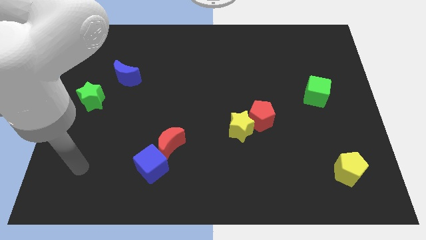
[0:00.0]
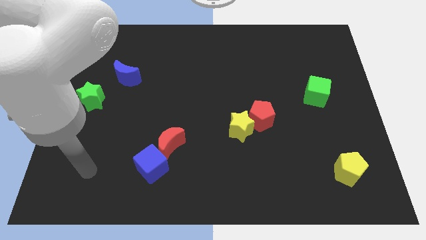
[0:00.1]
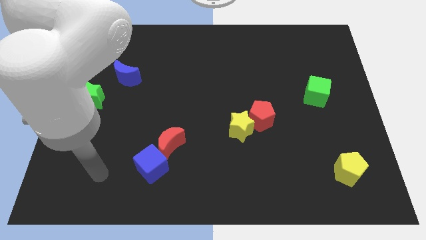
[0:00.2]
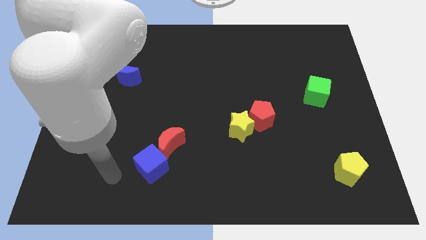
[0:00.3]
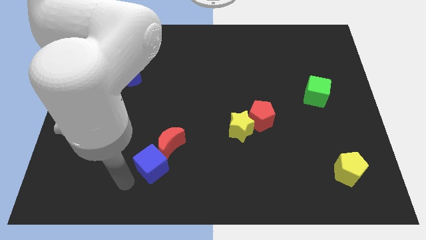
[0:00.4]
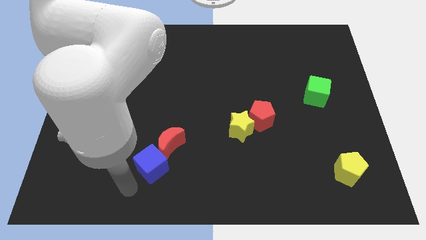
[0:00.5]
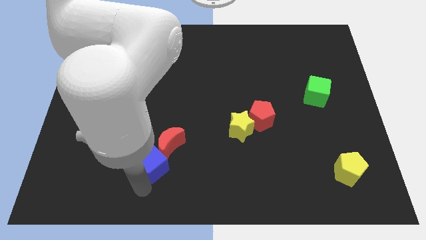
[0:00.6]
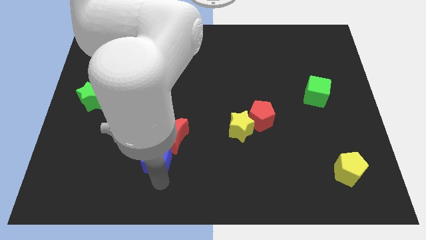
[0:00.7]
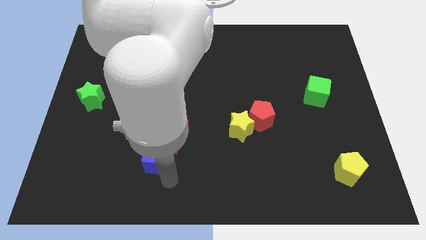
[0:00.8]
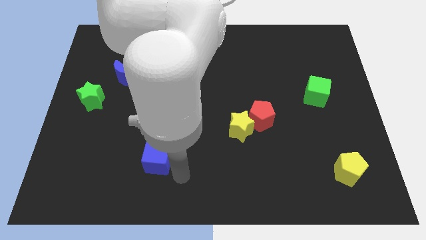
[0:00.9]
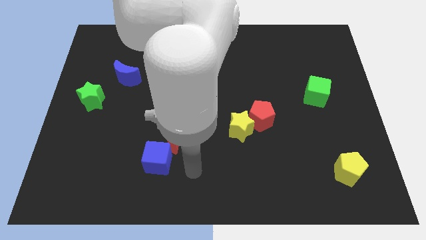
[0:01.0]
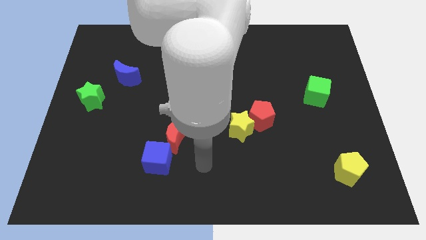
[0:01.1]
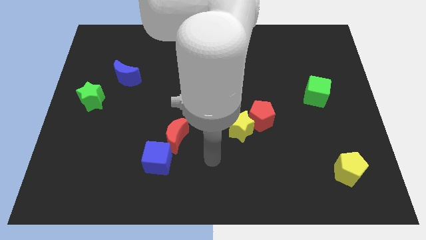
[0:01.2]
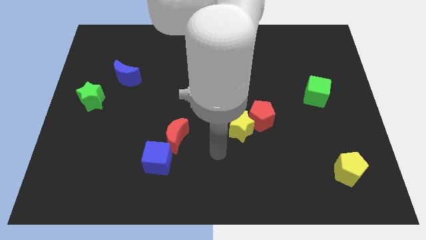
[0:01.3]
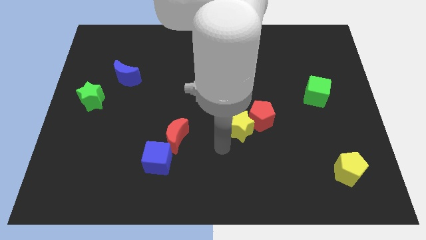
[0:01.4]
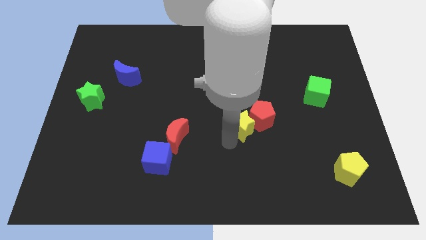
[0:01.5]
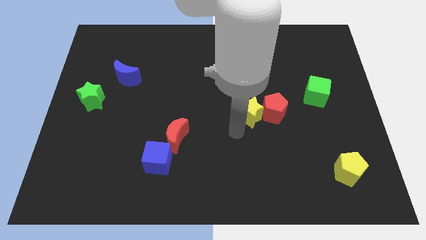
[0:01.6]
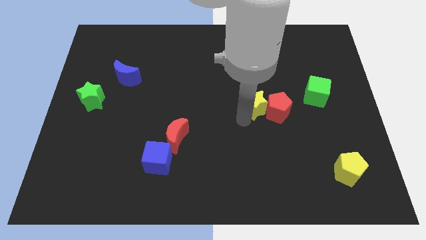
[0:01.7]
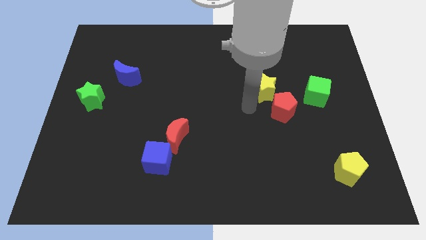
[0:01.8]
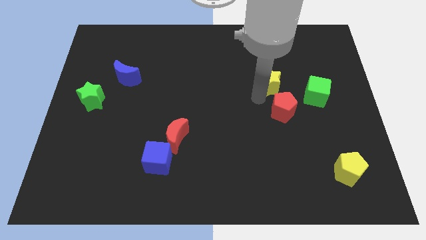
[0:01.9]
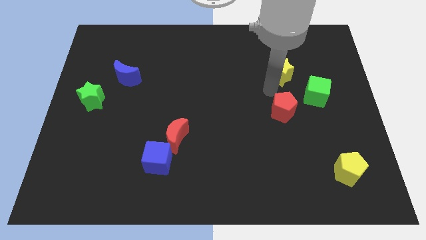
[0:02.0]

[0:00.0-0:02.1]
pull the red pentagon apart from the yellow star

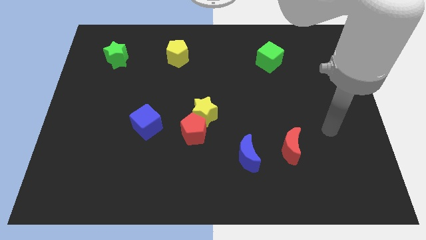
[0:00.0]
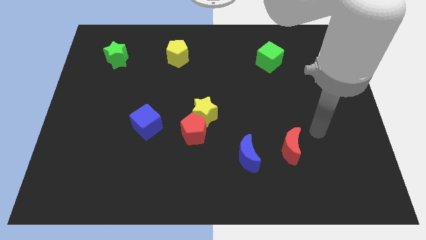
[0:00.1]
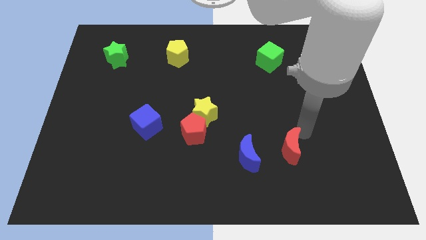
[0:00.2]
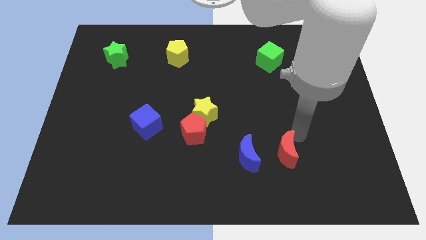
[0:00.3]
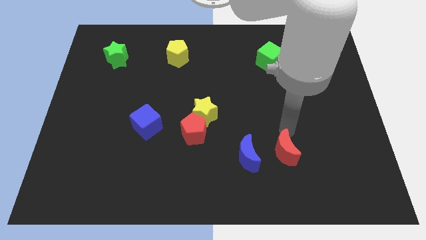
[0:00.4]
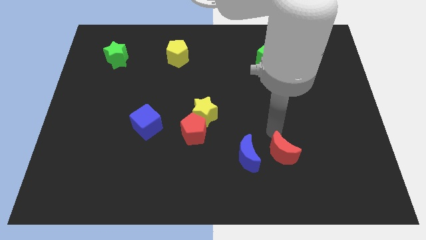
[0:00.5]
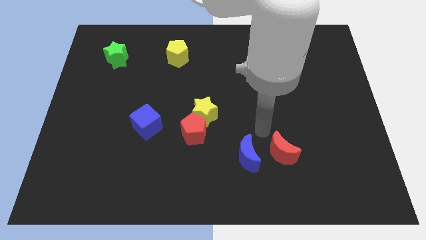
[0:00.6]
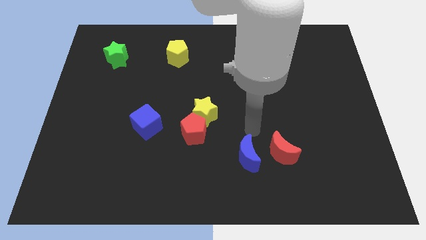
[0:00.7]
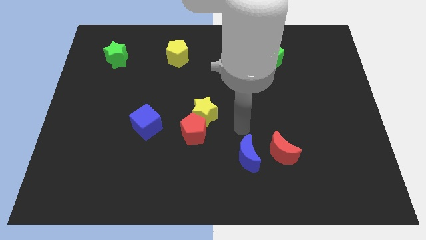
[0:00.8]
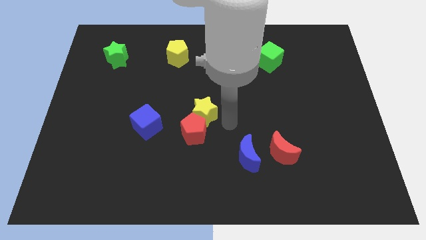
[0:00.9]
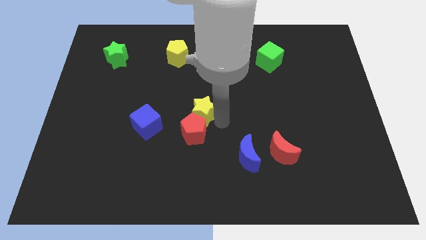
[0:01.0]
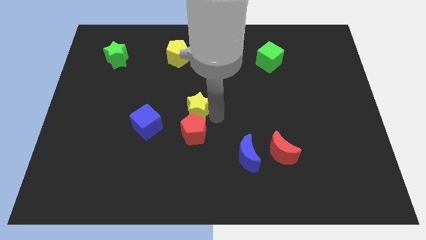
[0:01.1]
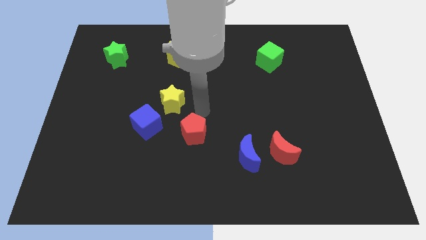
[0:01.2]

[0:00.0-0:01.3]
move the red pentagon away from the yellow star

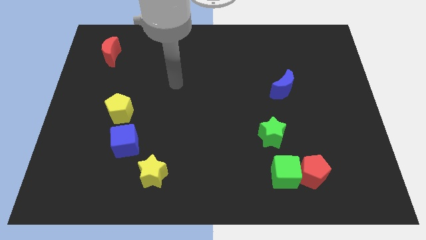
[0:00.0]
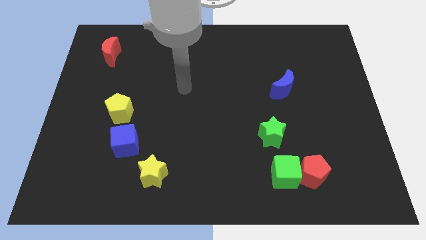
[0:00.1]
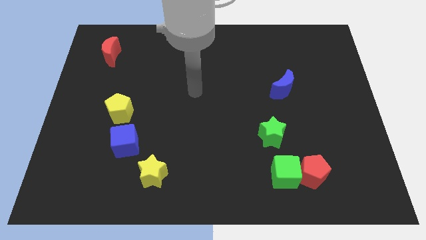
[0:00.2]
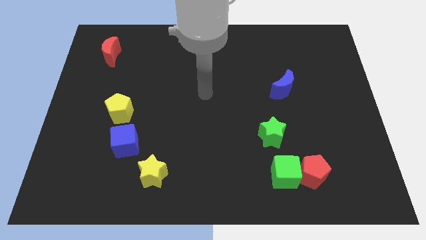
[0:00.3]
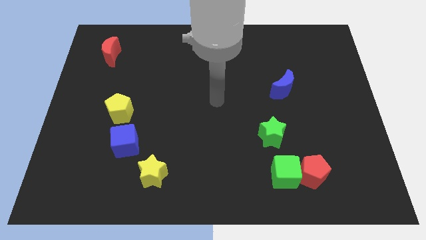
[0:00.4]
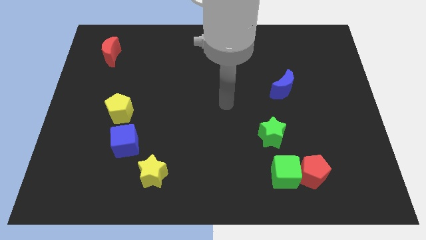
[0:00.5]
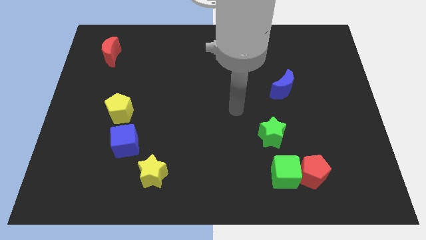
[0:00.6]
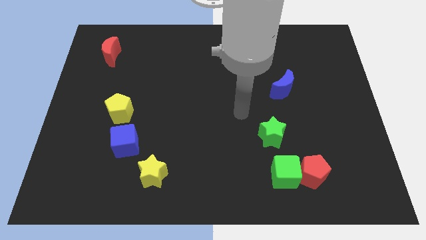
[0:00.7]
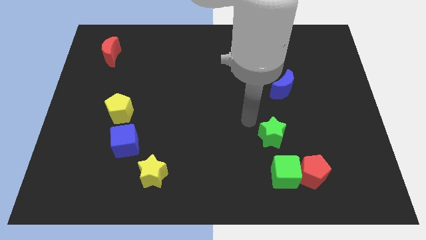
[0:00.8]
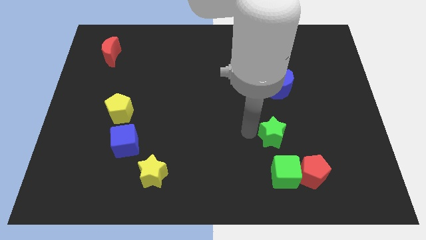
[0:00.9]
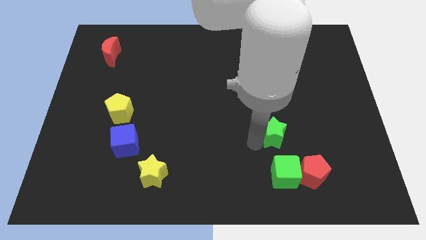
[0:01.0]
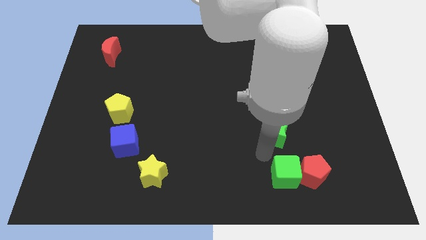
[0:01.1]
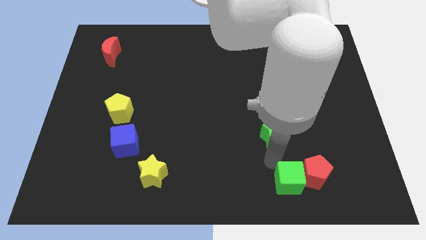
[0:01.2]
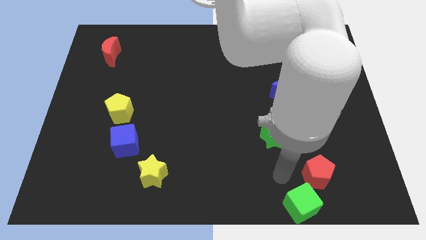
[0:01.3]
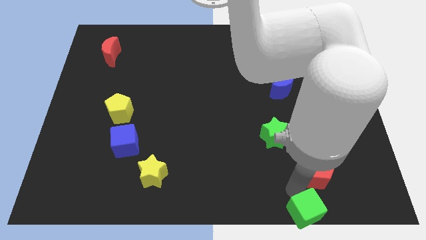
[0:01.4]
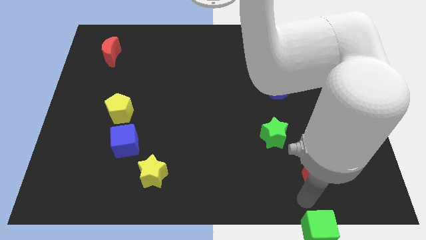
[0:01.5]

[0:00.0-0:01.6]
separate the red pentagon from the green cube

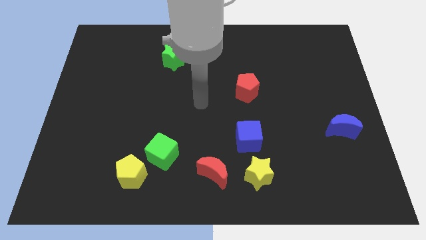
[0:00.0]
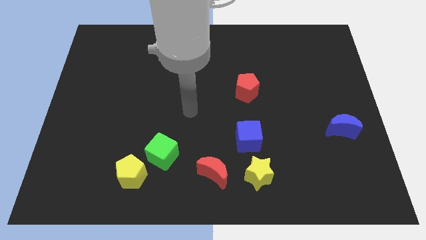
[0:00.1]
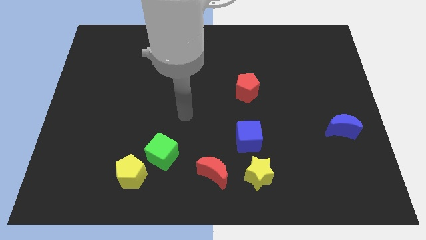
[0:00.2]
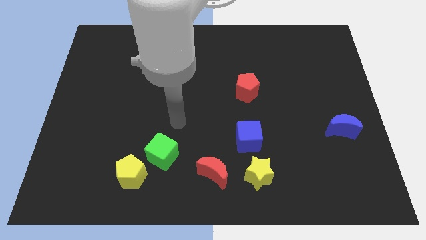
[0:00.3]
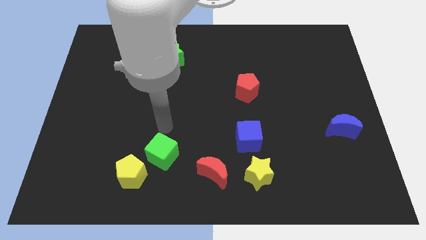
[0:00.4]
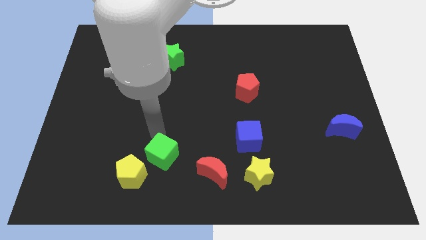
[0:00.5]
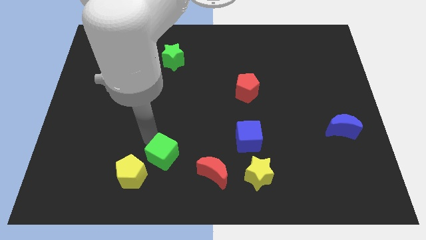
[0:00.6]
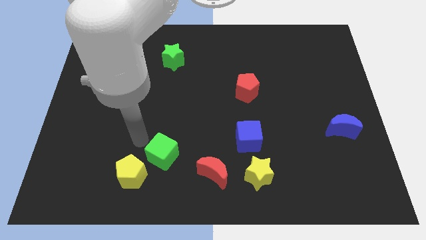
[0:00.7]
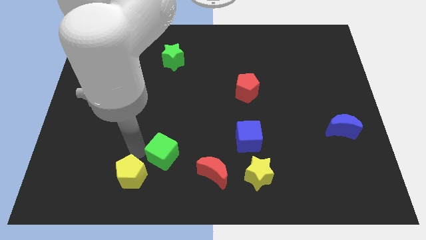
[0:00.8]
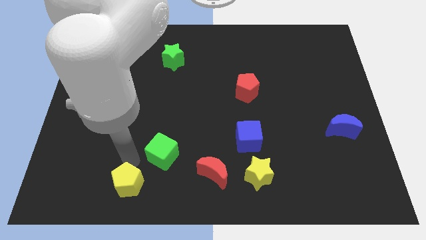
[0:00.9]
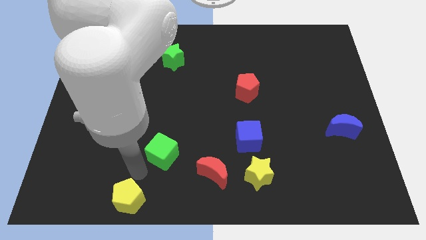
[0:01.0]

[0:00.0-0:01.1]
pull the green cube apart from the yellow pentagon

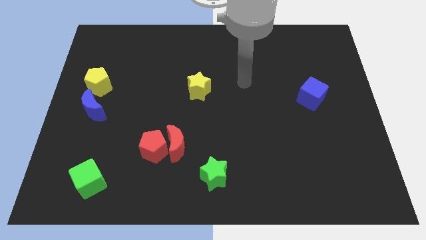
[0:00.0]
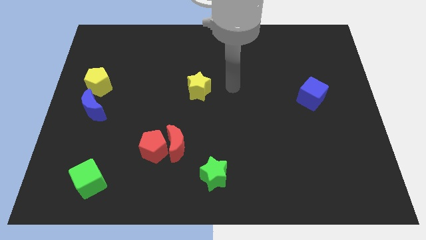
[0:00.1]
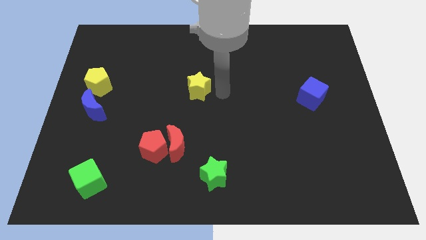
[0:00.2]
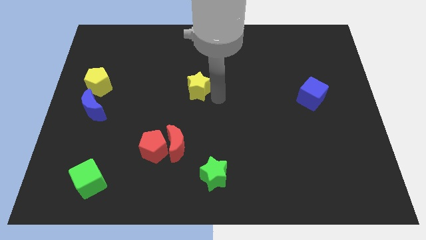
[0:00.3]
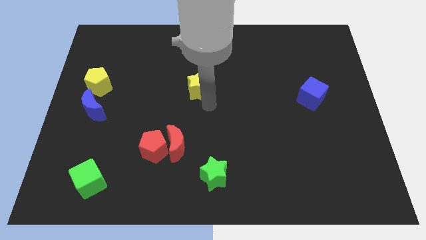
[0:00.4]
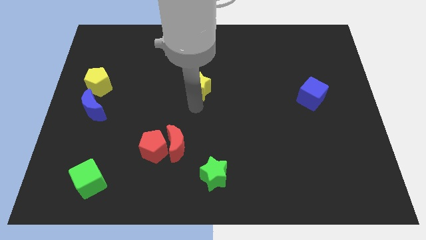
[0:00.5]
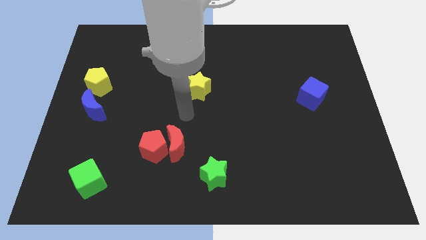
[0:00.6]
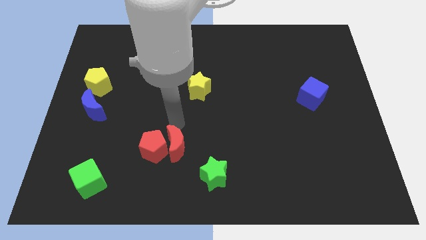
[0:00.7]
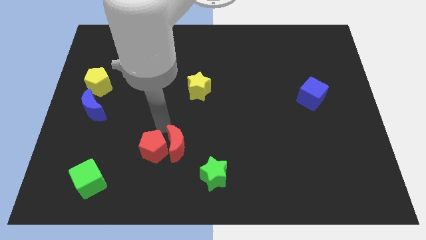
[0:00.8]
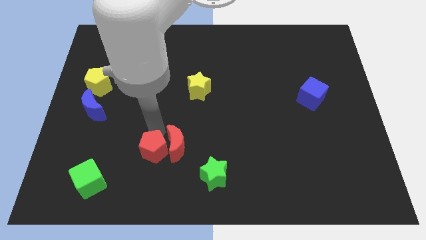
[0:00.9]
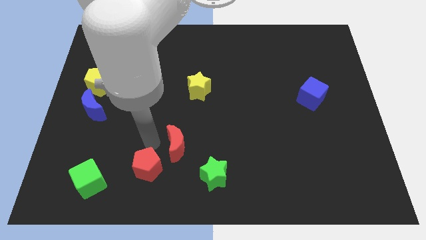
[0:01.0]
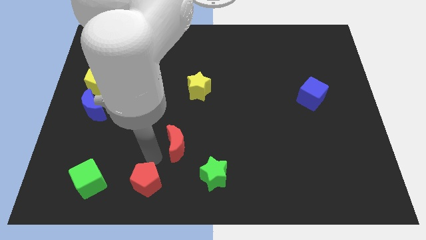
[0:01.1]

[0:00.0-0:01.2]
pull the red moon apart from the red pentagon

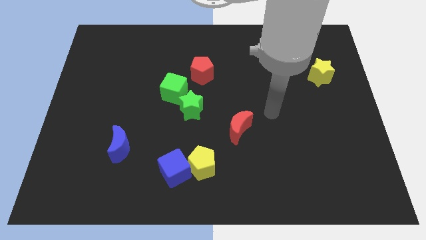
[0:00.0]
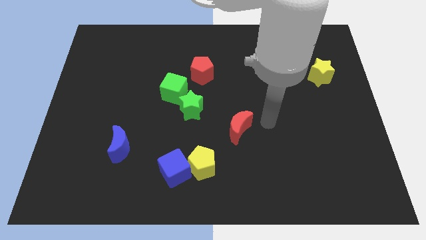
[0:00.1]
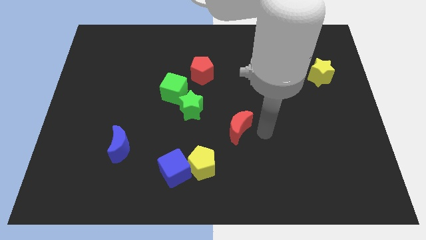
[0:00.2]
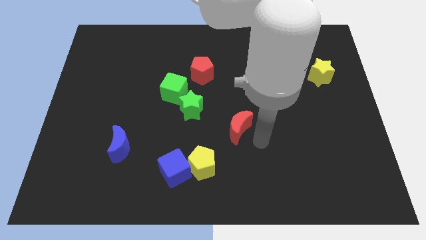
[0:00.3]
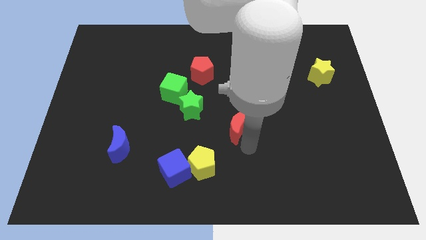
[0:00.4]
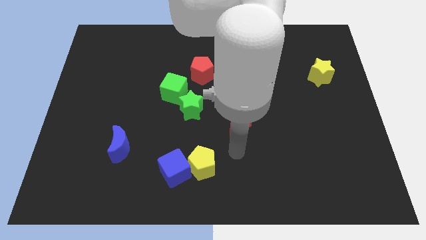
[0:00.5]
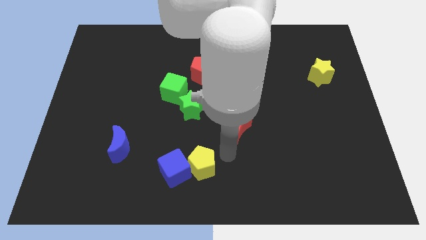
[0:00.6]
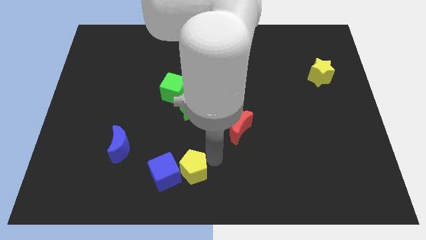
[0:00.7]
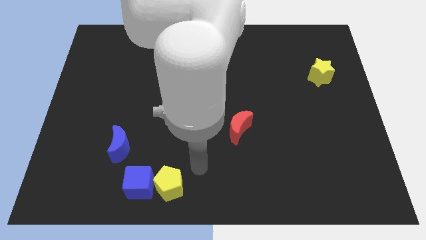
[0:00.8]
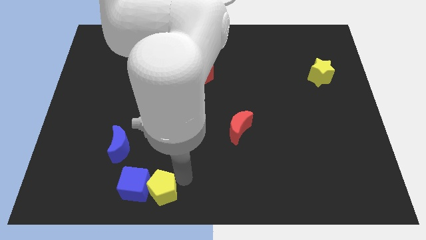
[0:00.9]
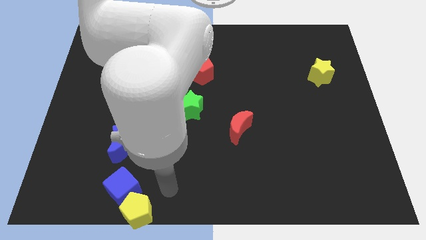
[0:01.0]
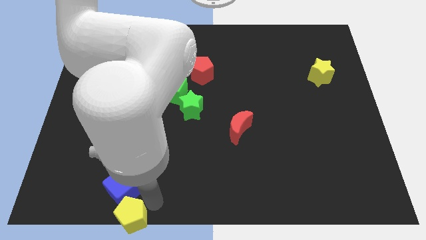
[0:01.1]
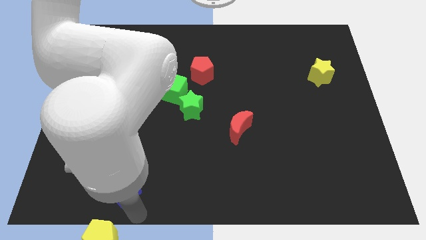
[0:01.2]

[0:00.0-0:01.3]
separate the blue cube from the yellow pentagon

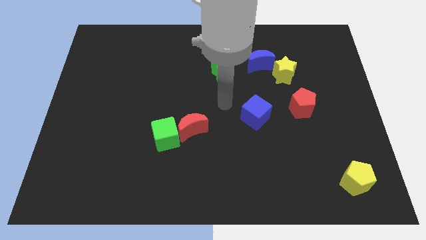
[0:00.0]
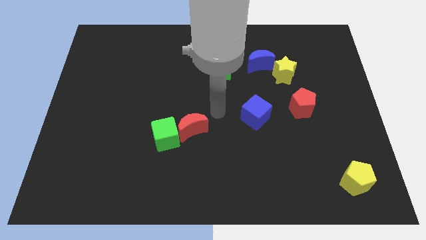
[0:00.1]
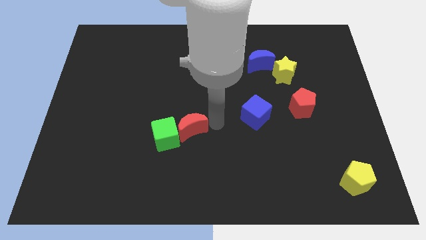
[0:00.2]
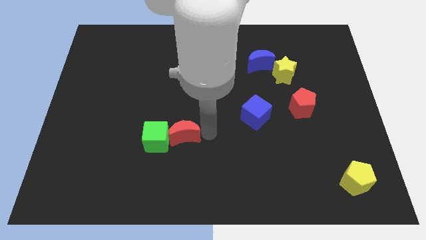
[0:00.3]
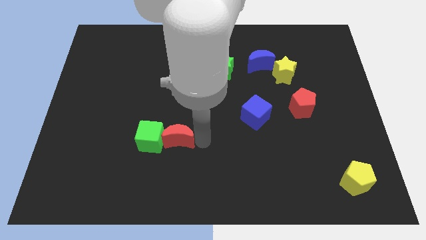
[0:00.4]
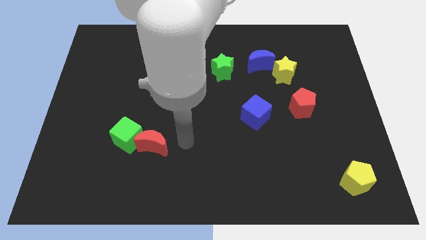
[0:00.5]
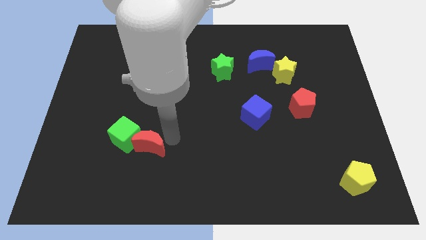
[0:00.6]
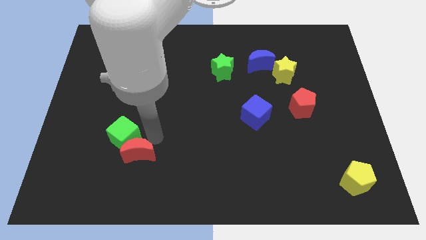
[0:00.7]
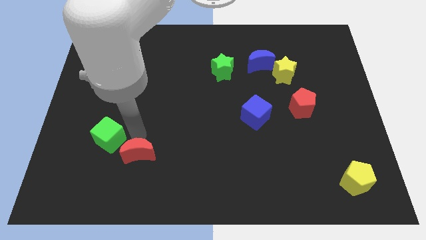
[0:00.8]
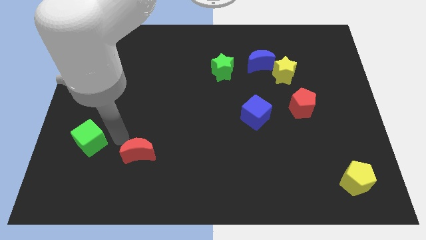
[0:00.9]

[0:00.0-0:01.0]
pull the red moon apart from the green cube
